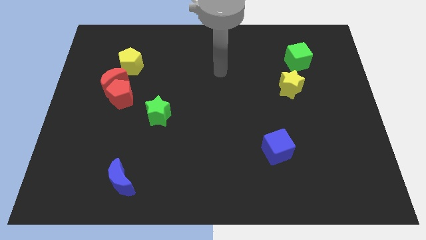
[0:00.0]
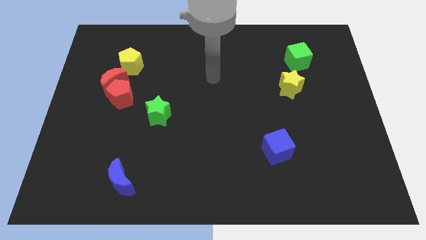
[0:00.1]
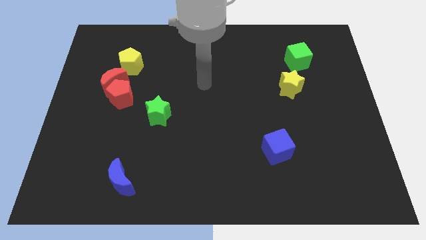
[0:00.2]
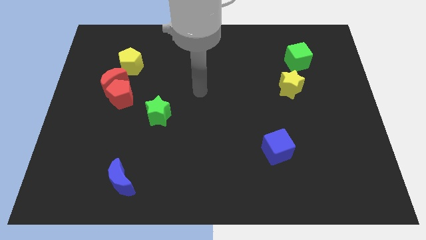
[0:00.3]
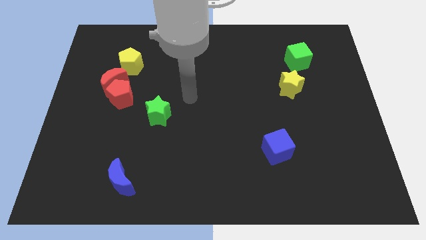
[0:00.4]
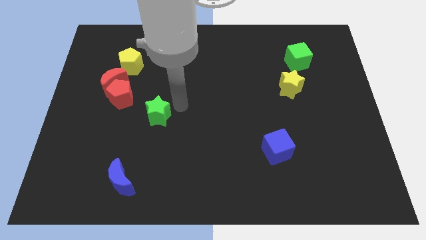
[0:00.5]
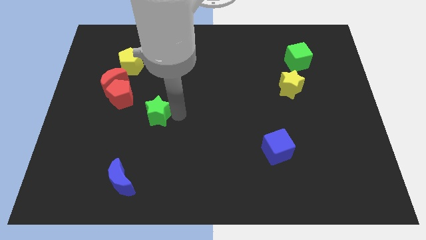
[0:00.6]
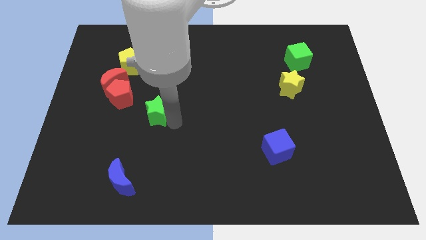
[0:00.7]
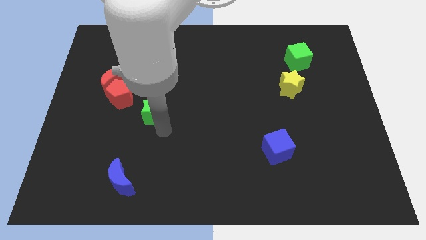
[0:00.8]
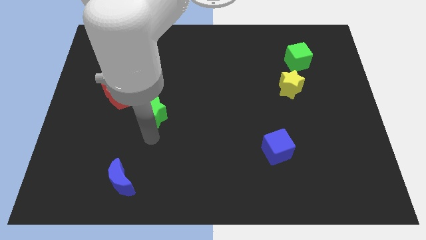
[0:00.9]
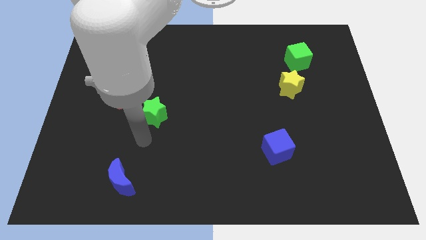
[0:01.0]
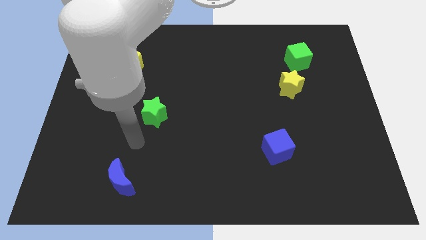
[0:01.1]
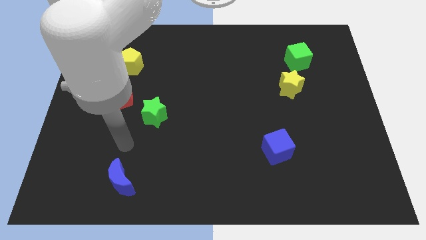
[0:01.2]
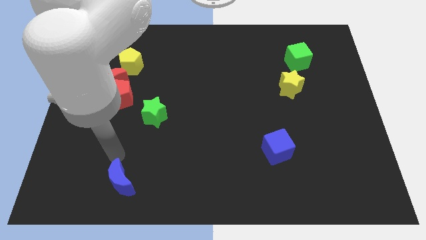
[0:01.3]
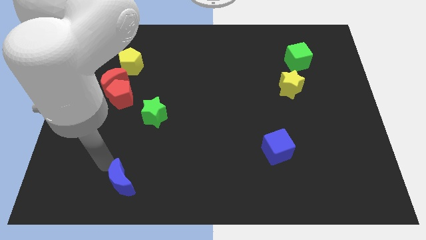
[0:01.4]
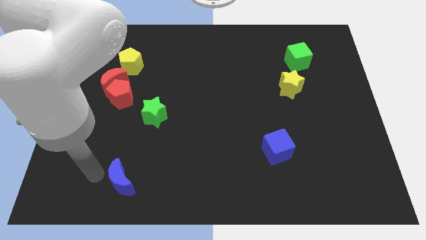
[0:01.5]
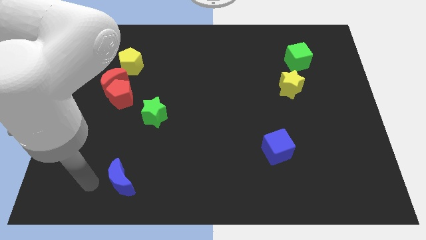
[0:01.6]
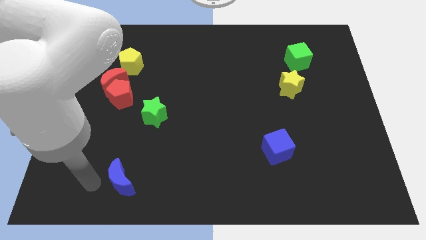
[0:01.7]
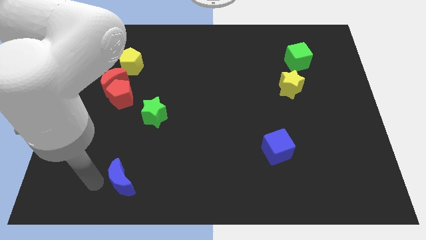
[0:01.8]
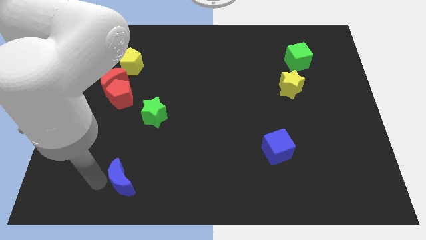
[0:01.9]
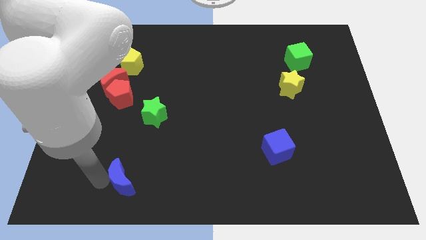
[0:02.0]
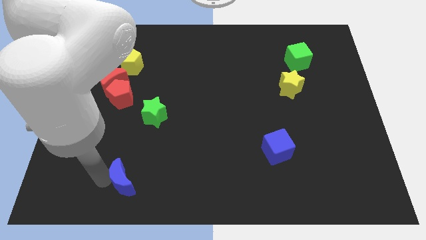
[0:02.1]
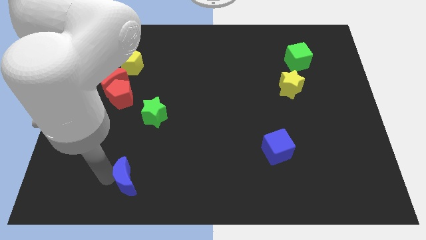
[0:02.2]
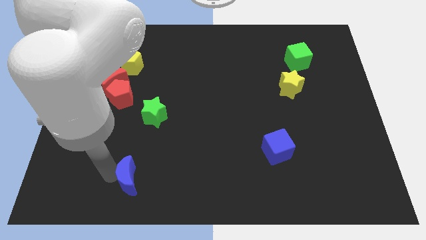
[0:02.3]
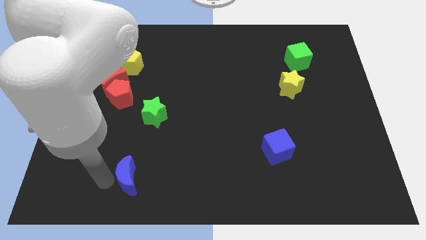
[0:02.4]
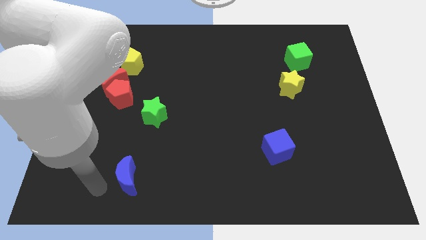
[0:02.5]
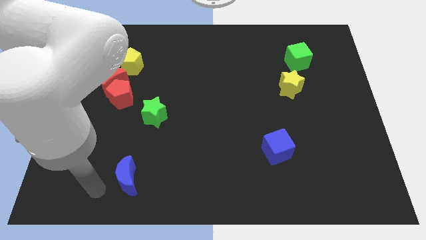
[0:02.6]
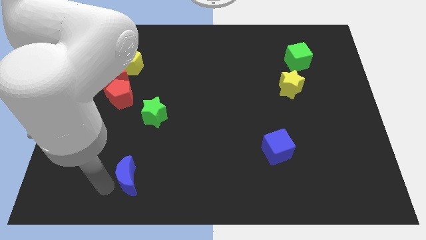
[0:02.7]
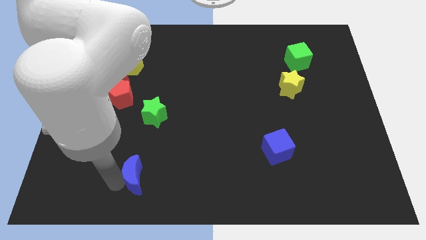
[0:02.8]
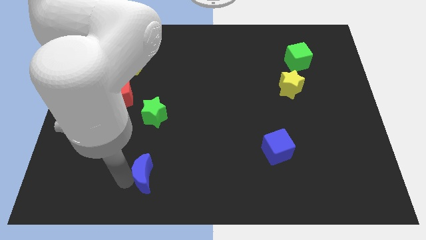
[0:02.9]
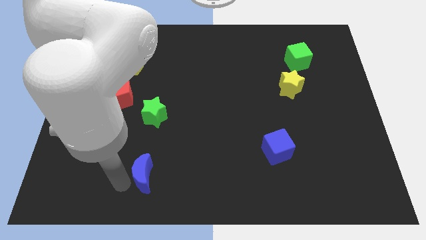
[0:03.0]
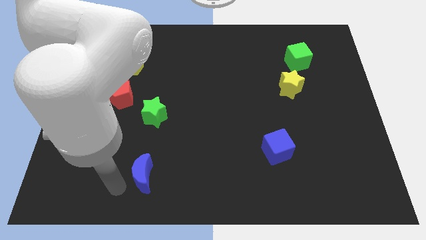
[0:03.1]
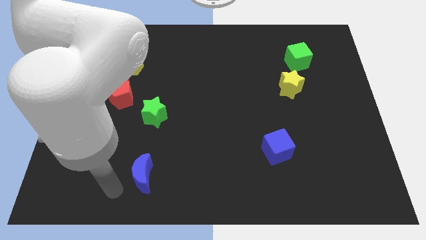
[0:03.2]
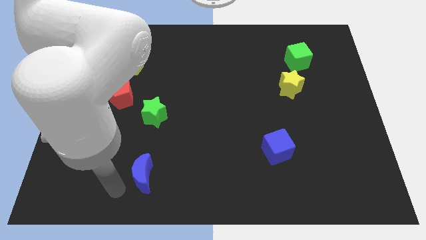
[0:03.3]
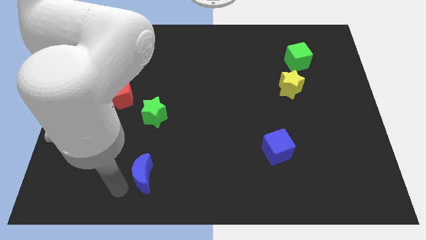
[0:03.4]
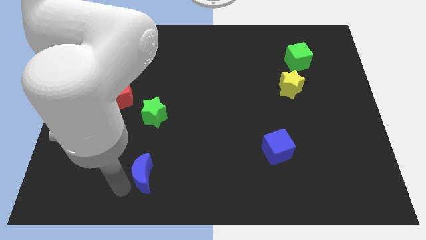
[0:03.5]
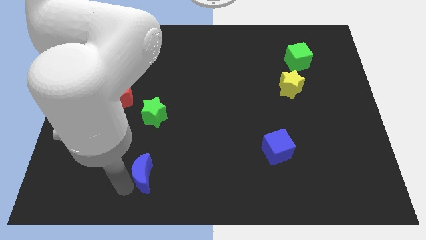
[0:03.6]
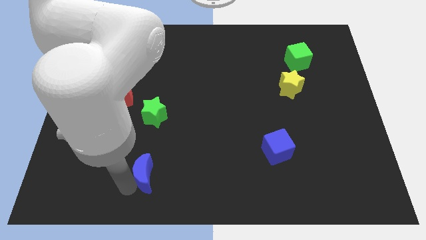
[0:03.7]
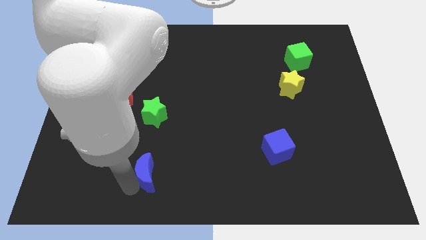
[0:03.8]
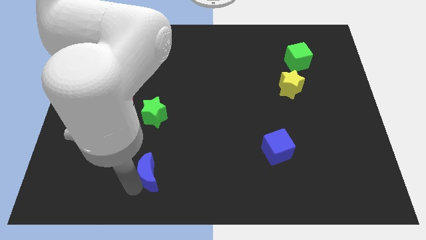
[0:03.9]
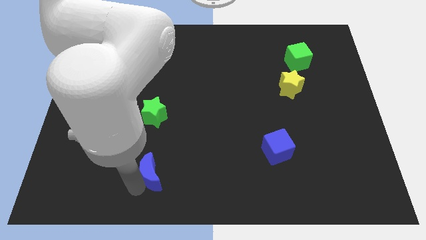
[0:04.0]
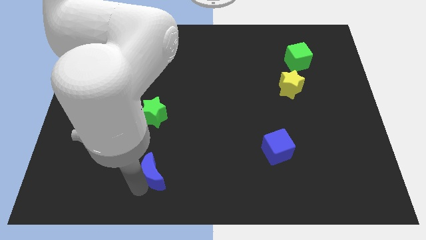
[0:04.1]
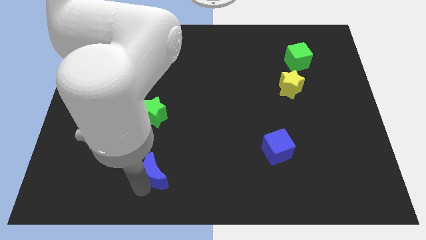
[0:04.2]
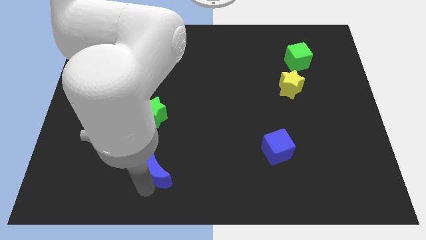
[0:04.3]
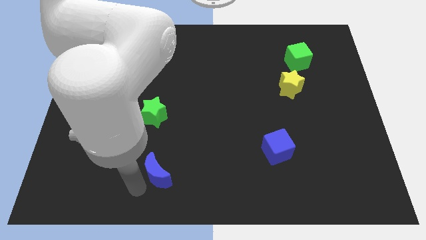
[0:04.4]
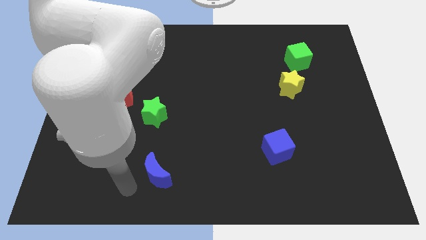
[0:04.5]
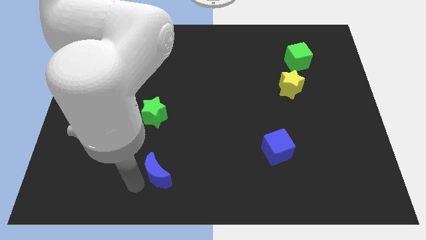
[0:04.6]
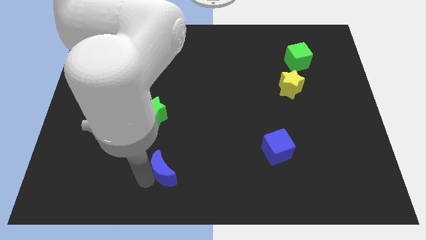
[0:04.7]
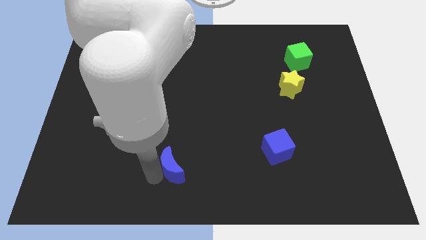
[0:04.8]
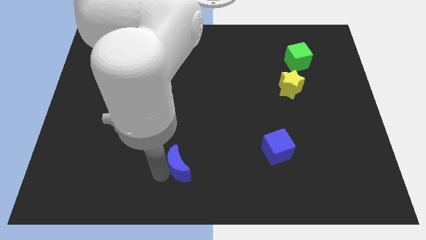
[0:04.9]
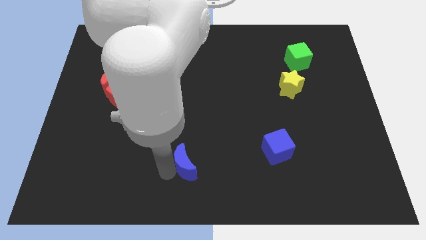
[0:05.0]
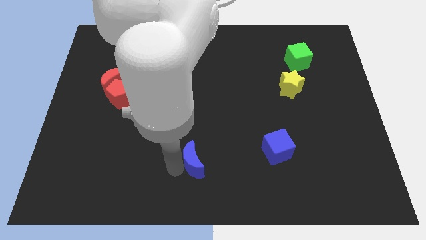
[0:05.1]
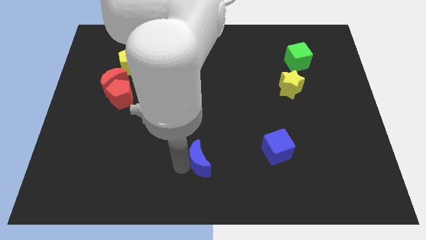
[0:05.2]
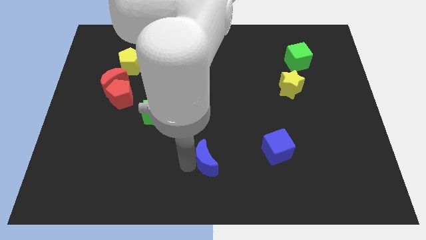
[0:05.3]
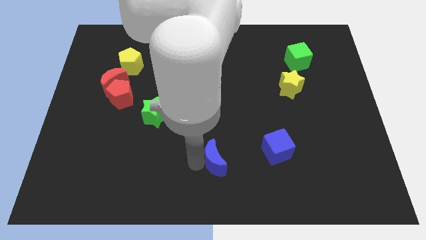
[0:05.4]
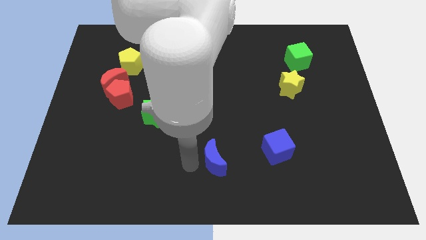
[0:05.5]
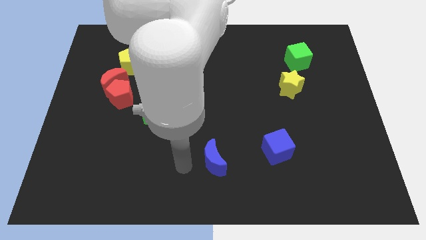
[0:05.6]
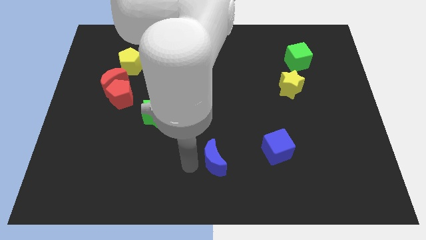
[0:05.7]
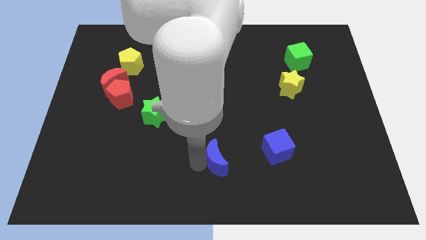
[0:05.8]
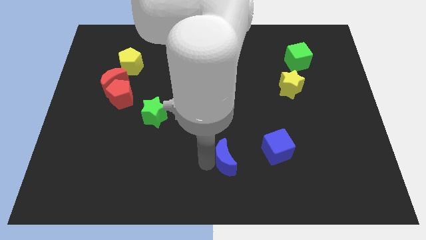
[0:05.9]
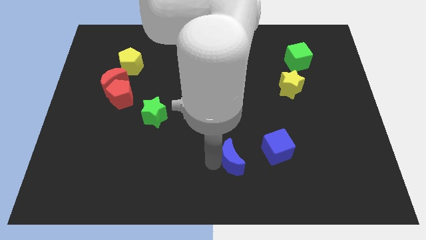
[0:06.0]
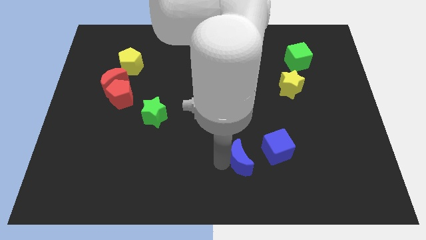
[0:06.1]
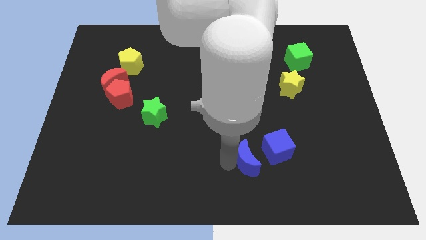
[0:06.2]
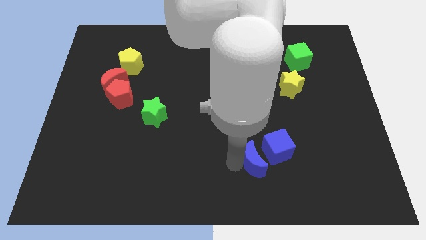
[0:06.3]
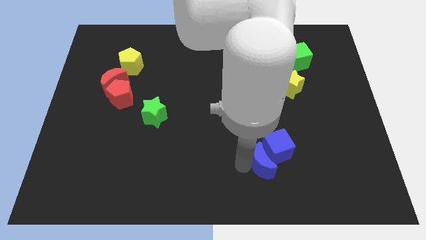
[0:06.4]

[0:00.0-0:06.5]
slide the blue moon towards the blue cube

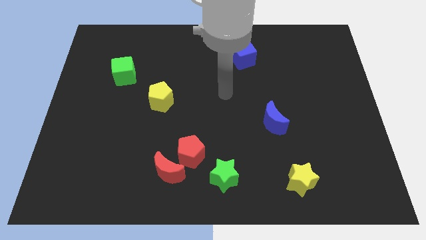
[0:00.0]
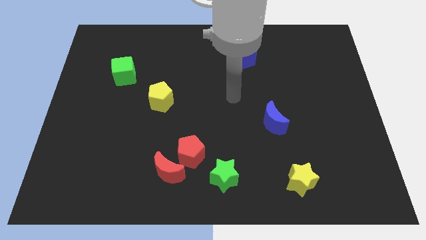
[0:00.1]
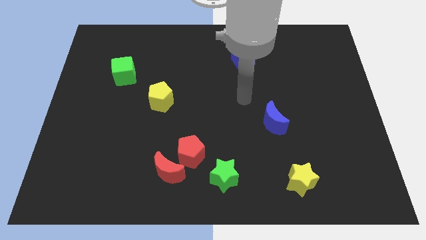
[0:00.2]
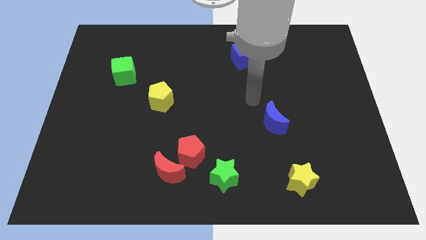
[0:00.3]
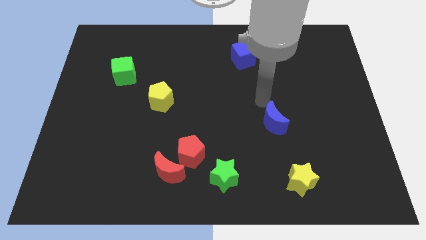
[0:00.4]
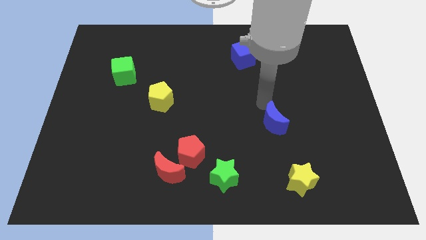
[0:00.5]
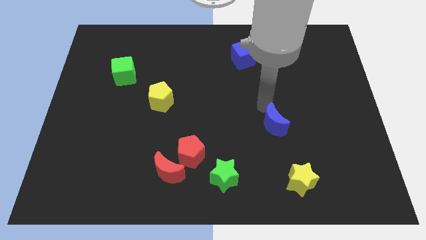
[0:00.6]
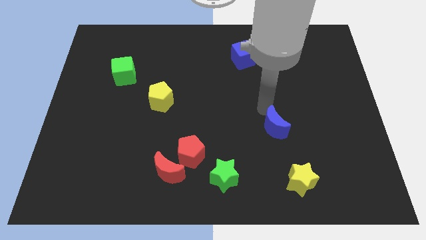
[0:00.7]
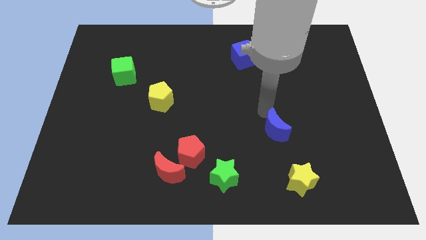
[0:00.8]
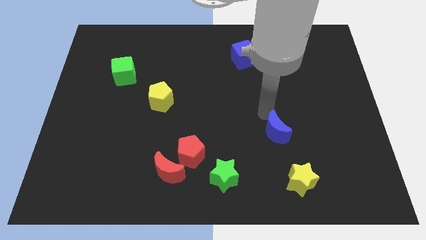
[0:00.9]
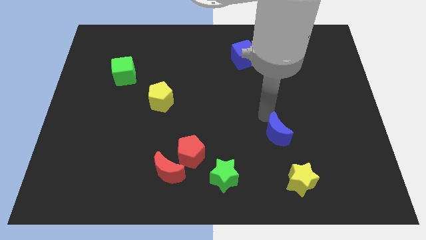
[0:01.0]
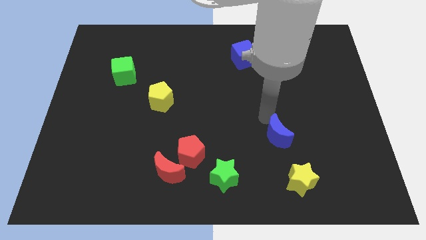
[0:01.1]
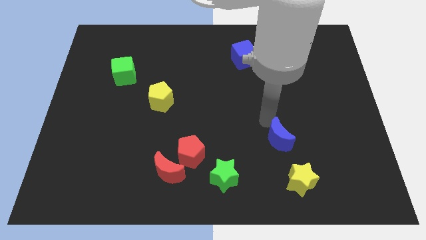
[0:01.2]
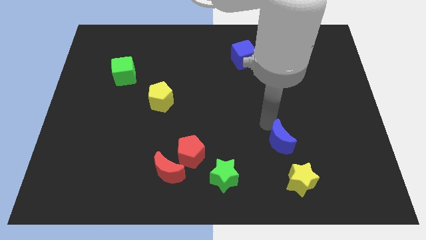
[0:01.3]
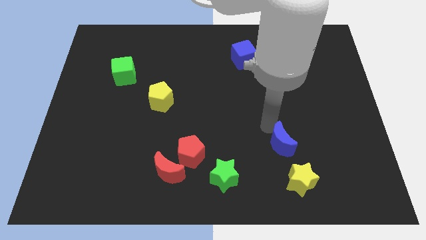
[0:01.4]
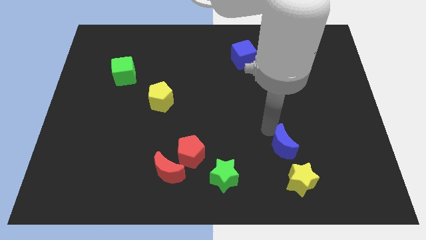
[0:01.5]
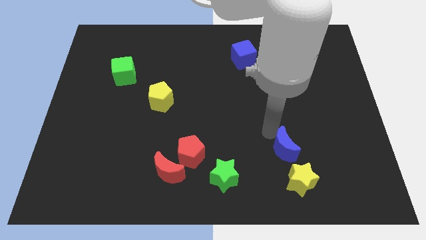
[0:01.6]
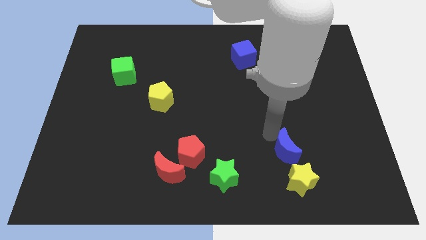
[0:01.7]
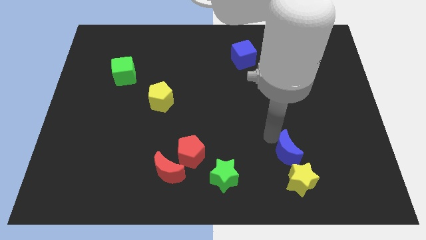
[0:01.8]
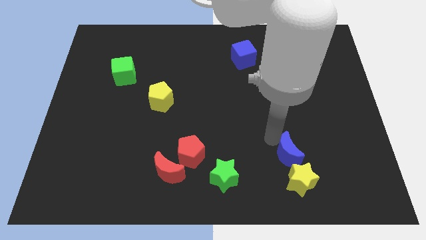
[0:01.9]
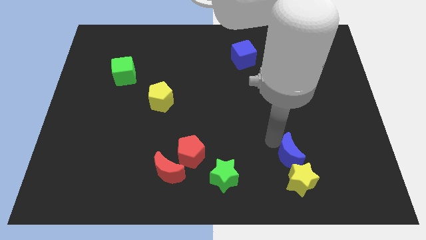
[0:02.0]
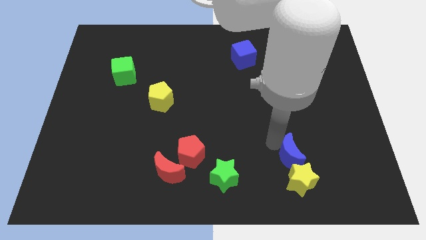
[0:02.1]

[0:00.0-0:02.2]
move the blue moon towards the yellow star
